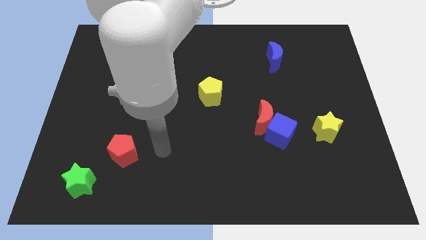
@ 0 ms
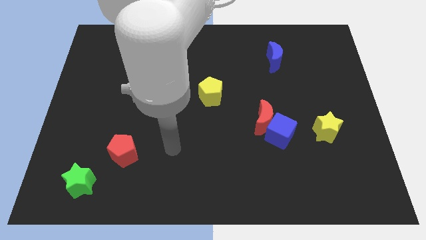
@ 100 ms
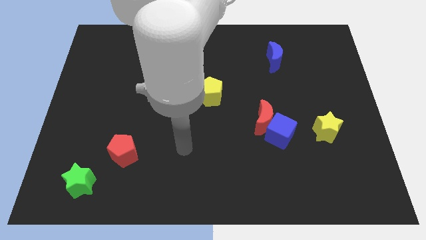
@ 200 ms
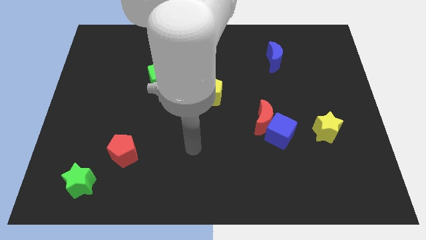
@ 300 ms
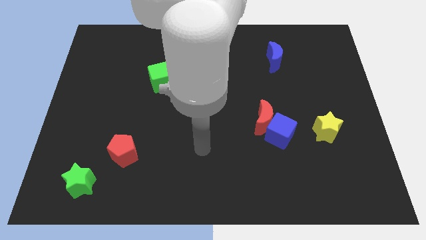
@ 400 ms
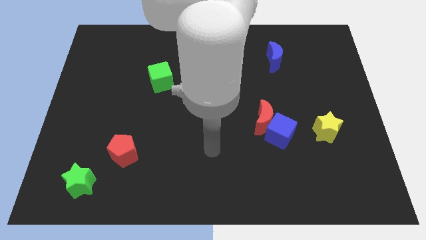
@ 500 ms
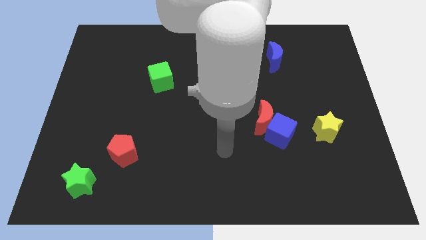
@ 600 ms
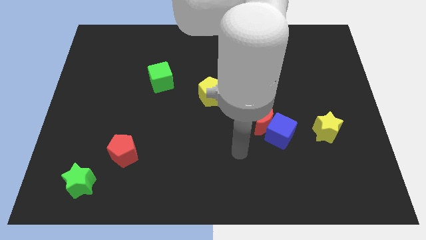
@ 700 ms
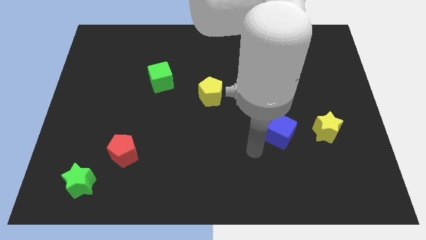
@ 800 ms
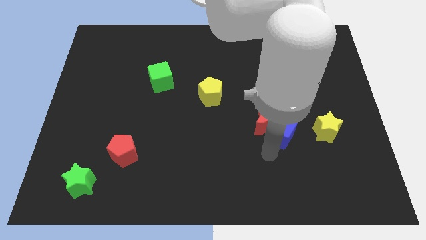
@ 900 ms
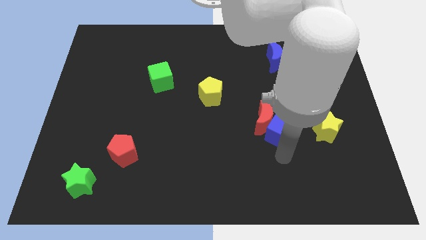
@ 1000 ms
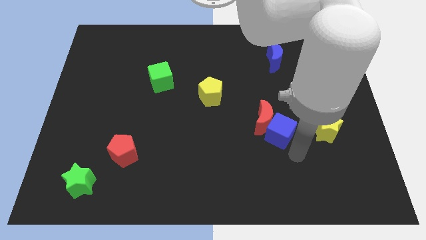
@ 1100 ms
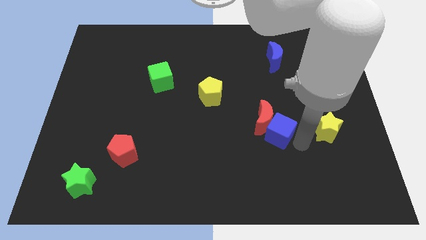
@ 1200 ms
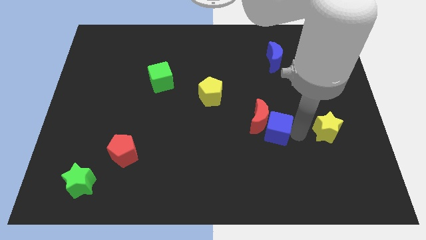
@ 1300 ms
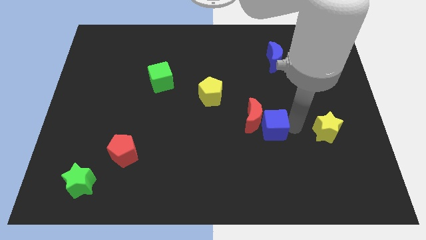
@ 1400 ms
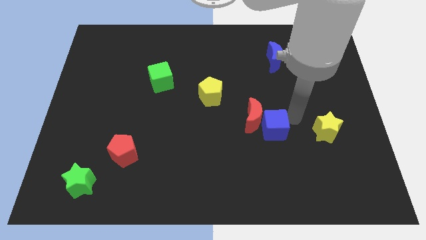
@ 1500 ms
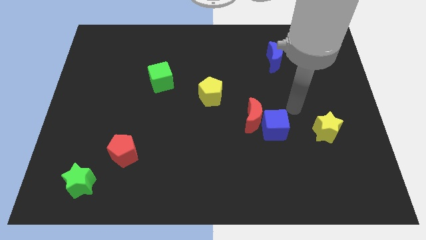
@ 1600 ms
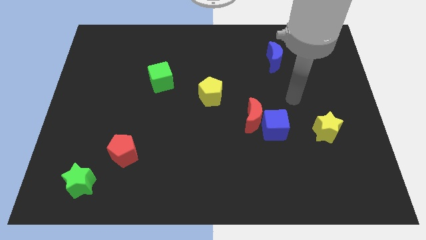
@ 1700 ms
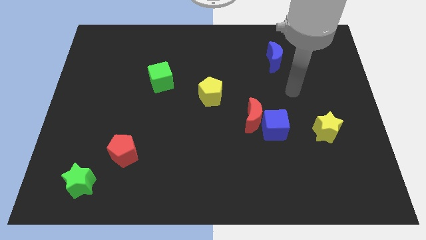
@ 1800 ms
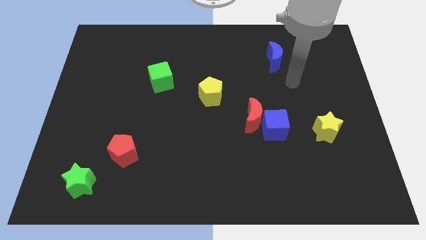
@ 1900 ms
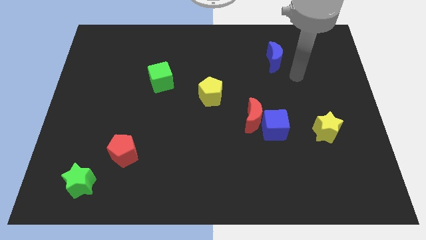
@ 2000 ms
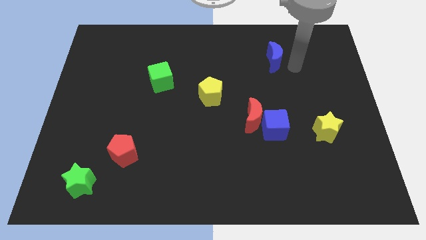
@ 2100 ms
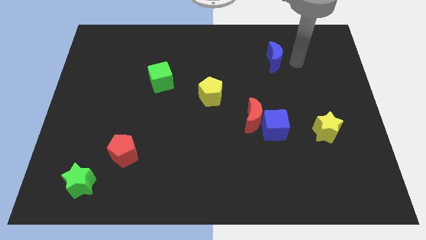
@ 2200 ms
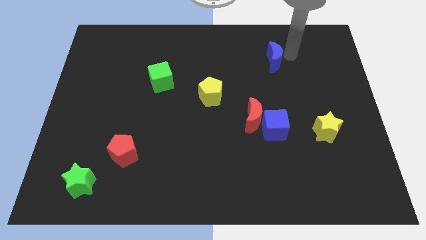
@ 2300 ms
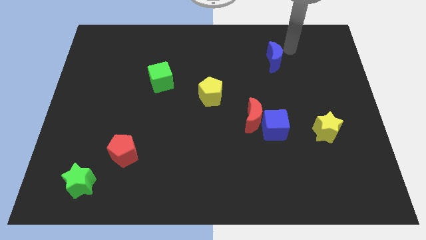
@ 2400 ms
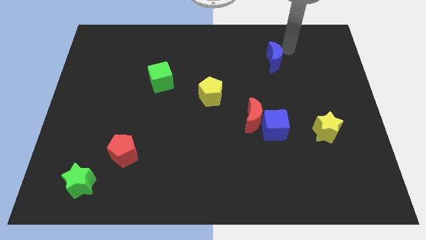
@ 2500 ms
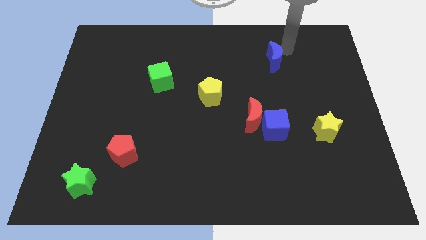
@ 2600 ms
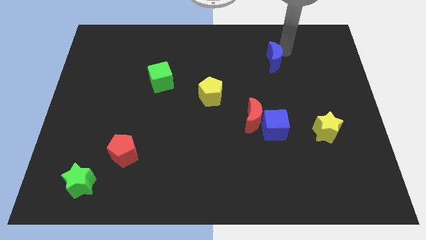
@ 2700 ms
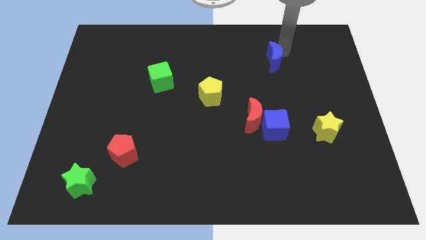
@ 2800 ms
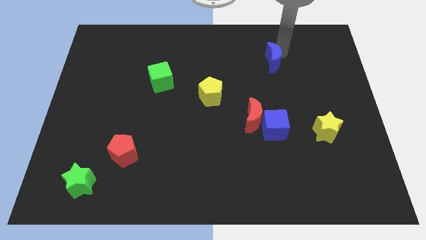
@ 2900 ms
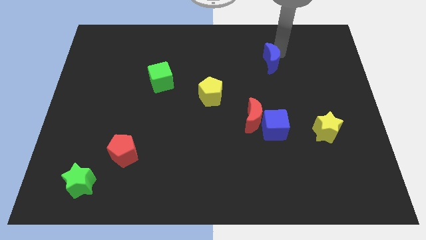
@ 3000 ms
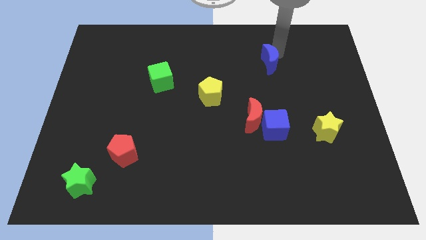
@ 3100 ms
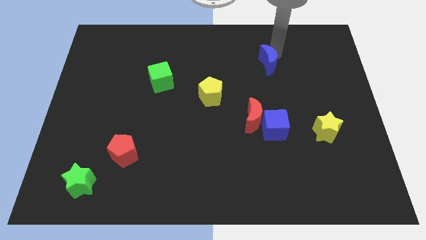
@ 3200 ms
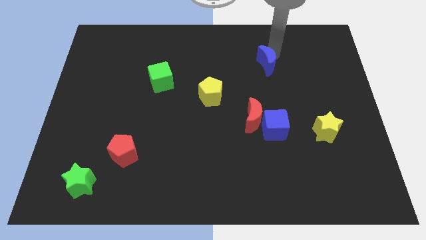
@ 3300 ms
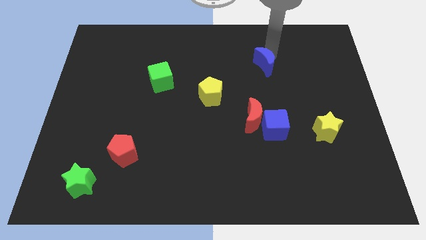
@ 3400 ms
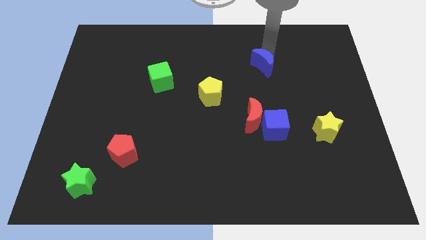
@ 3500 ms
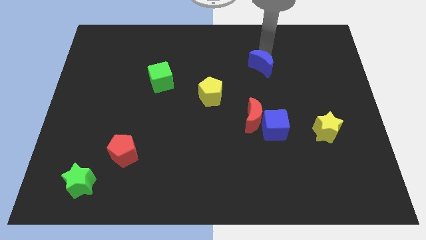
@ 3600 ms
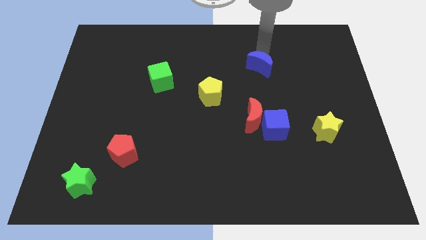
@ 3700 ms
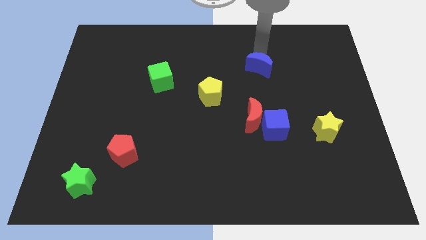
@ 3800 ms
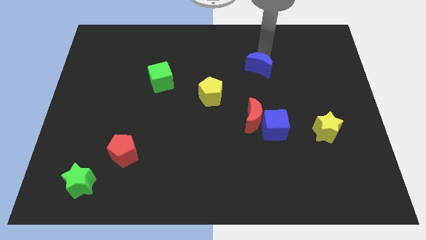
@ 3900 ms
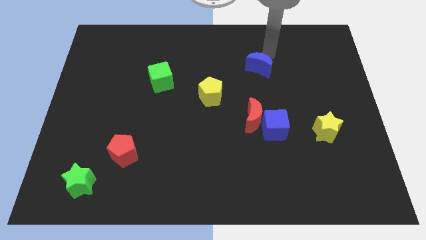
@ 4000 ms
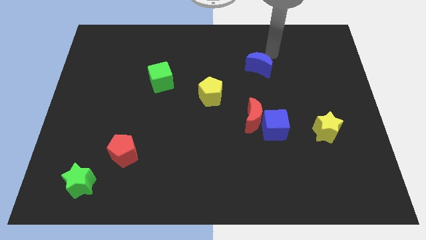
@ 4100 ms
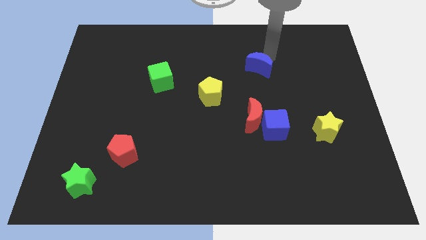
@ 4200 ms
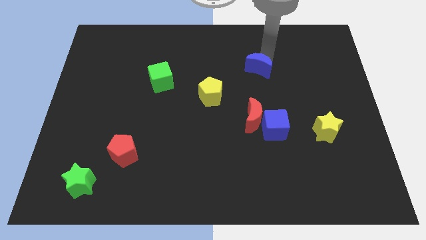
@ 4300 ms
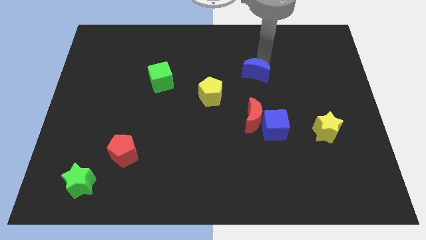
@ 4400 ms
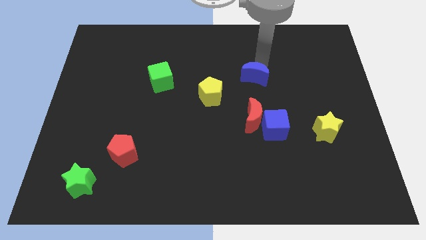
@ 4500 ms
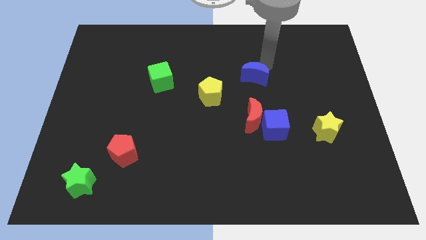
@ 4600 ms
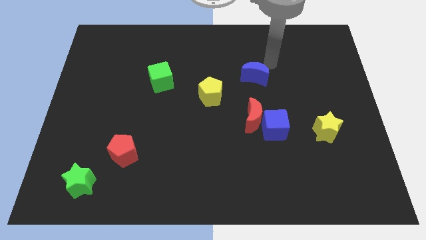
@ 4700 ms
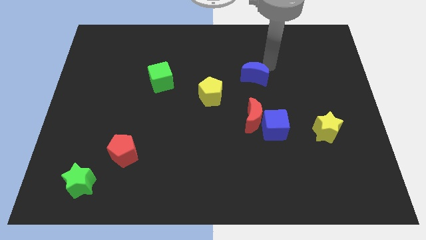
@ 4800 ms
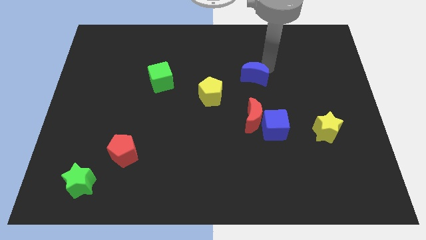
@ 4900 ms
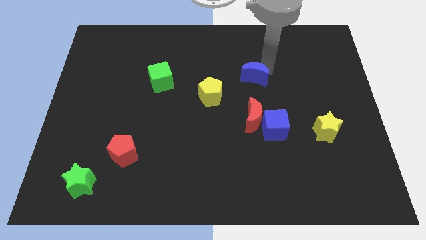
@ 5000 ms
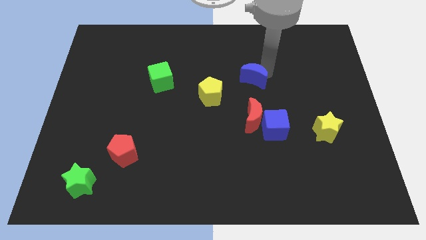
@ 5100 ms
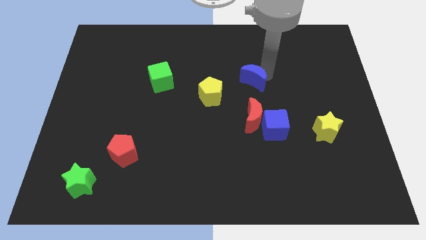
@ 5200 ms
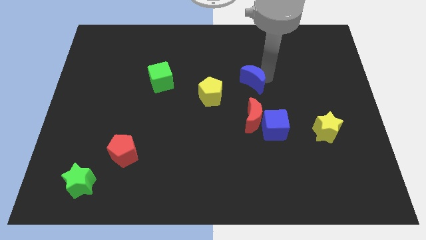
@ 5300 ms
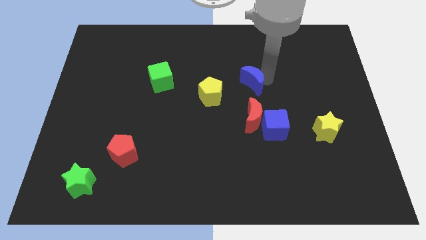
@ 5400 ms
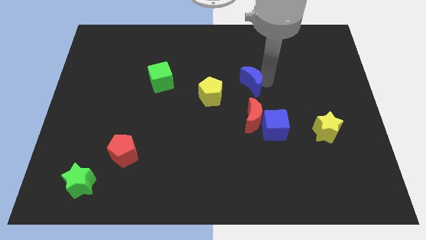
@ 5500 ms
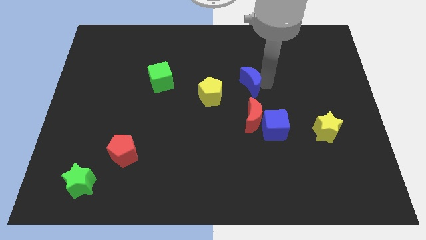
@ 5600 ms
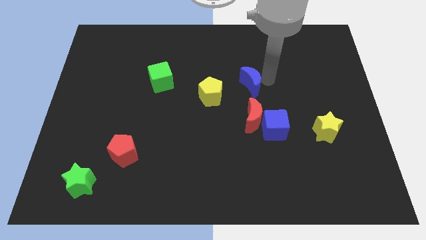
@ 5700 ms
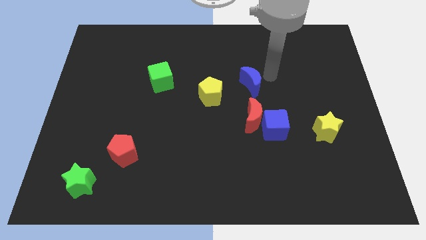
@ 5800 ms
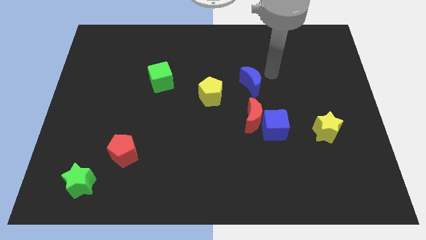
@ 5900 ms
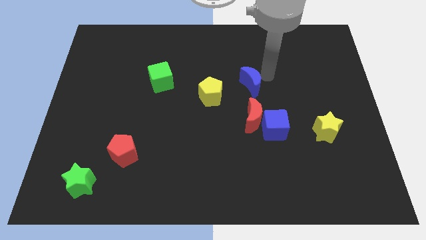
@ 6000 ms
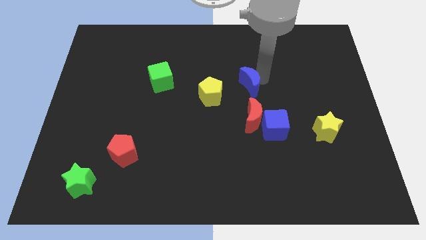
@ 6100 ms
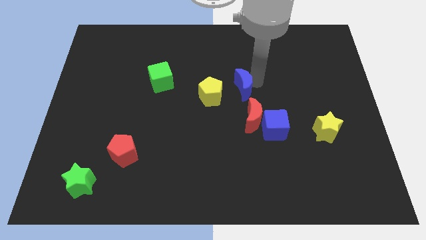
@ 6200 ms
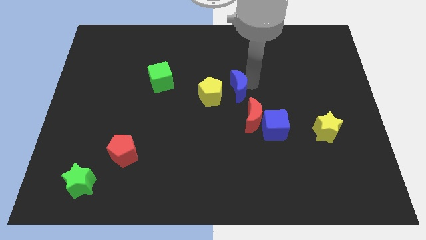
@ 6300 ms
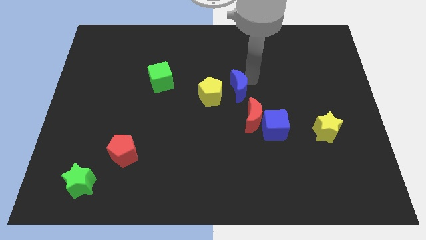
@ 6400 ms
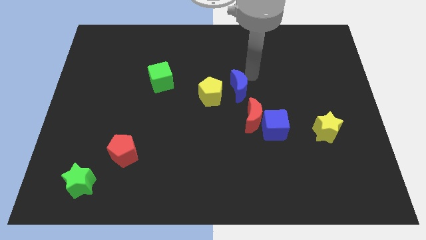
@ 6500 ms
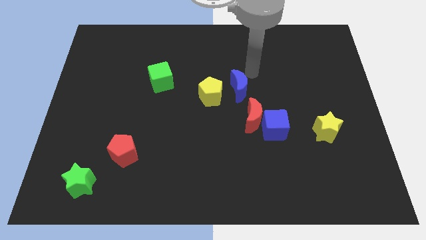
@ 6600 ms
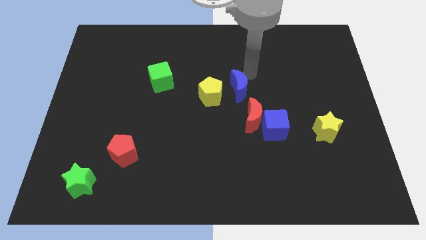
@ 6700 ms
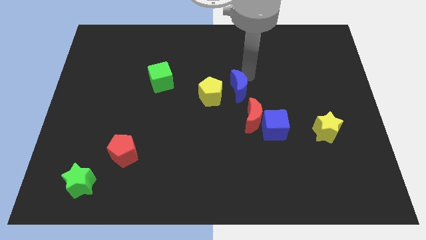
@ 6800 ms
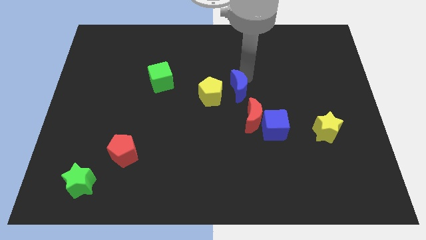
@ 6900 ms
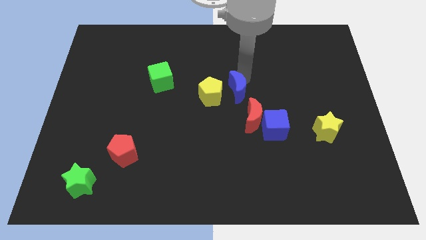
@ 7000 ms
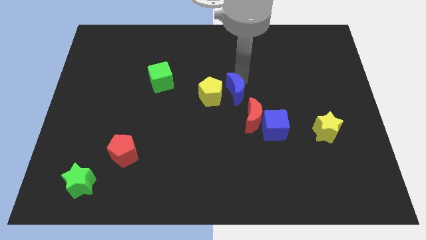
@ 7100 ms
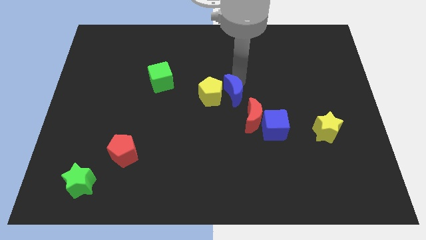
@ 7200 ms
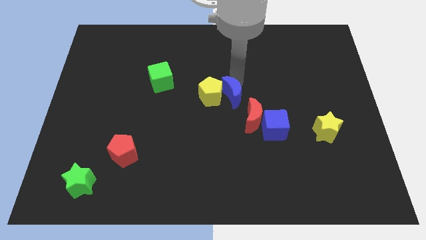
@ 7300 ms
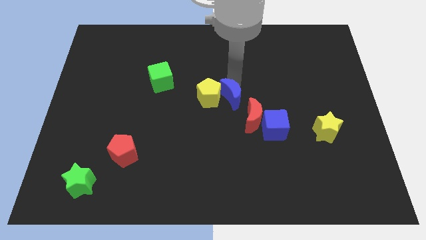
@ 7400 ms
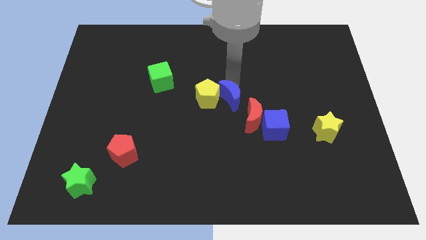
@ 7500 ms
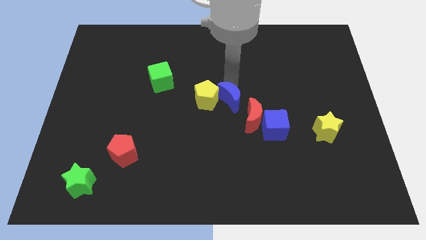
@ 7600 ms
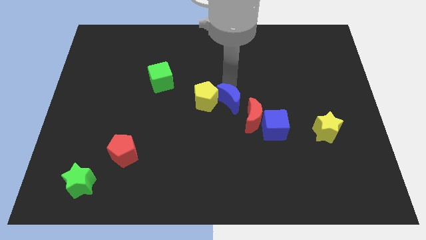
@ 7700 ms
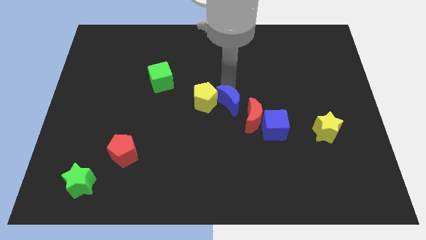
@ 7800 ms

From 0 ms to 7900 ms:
put the blue moon to the left of the red moon
